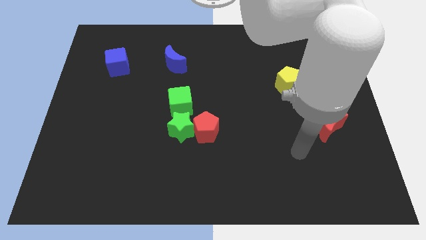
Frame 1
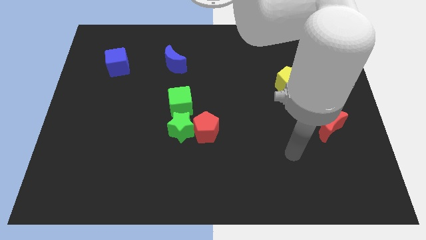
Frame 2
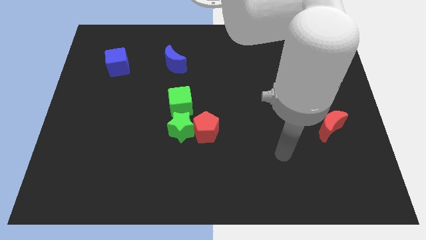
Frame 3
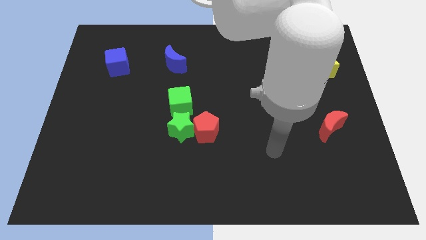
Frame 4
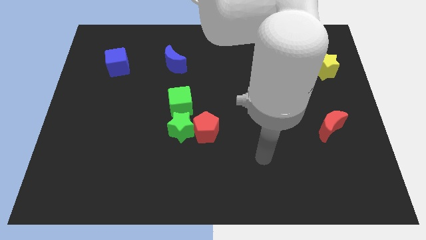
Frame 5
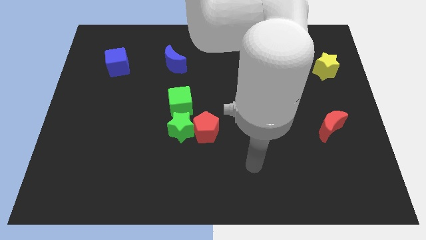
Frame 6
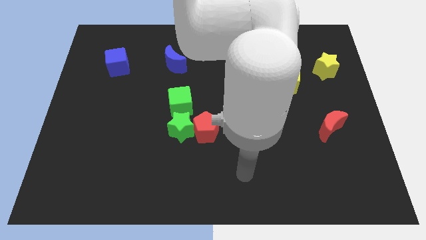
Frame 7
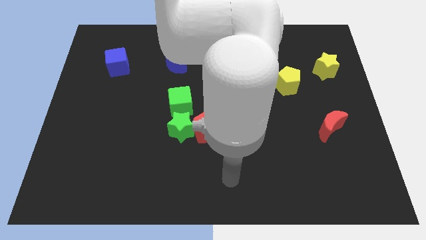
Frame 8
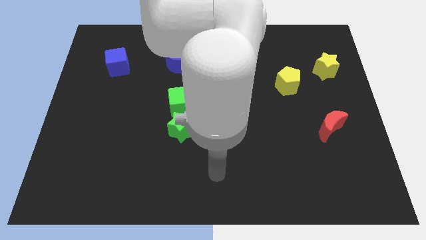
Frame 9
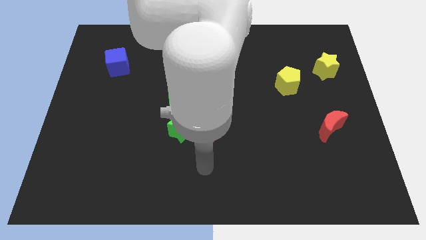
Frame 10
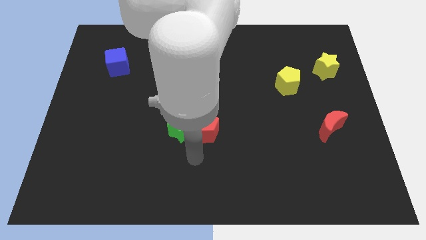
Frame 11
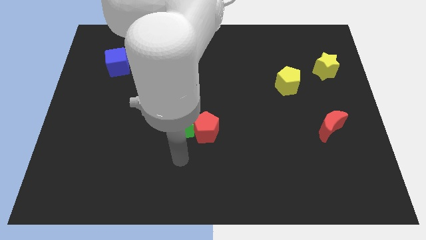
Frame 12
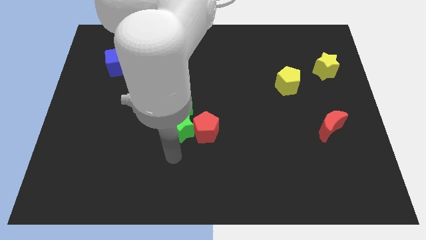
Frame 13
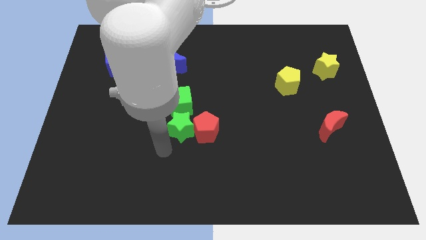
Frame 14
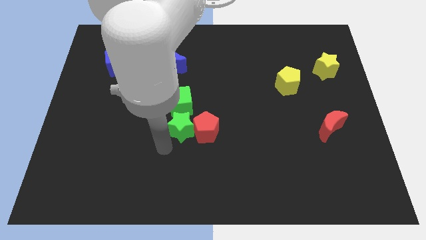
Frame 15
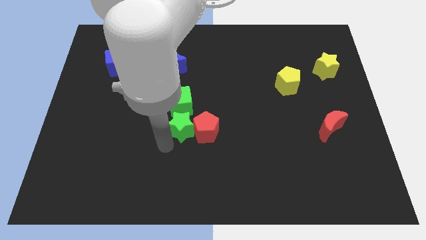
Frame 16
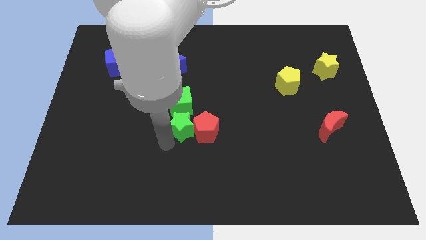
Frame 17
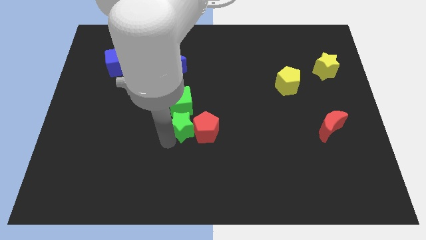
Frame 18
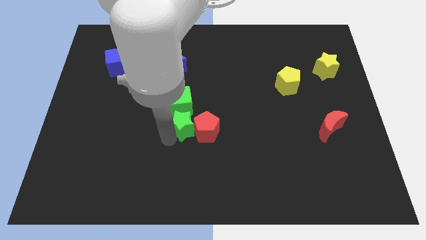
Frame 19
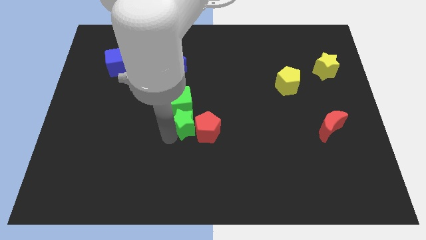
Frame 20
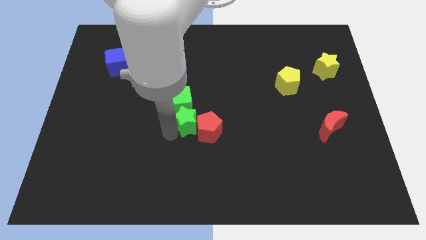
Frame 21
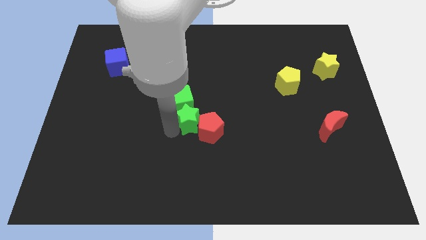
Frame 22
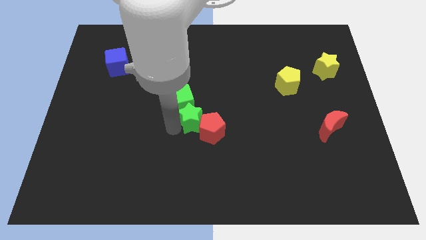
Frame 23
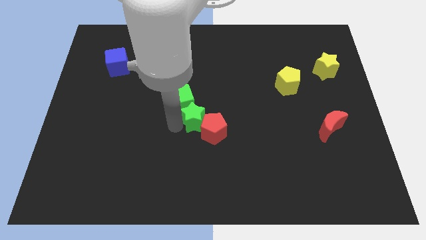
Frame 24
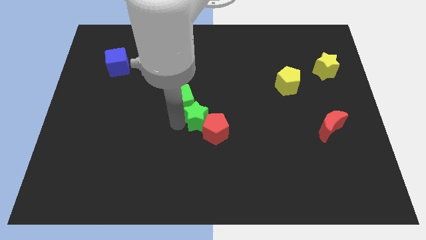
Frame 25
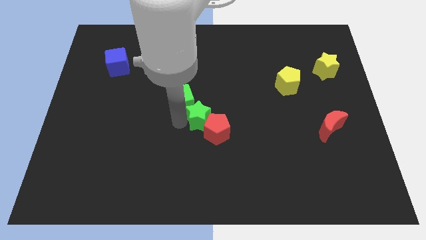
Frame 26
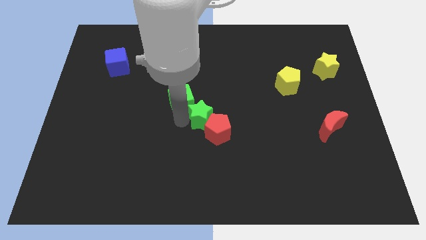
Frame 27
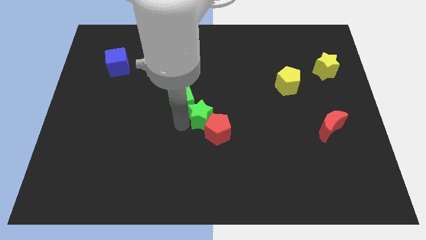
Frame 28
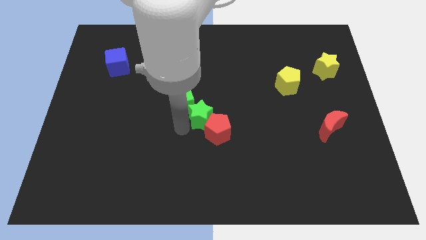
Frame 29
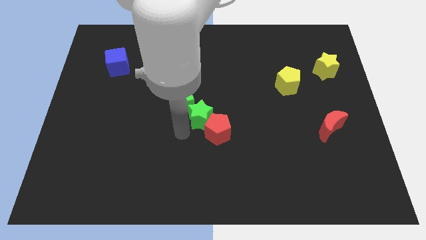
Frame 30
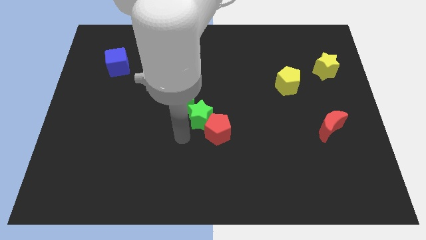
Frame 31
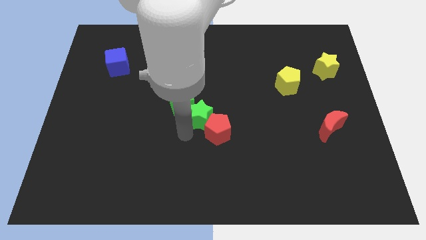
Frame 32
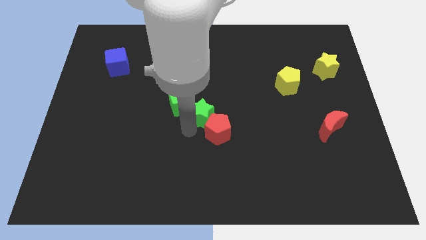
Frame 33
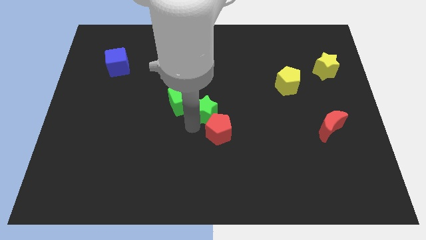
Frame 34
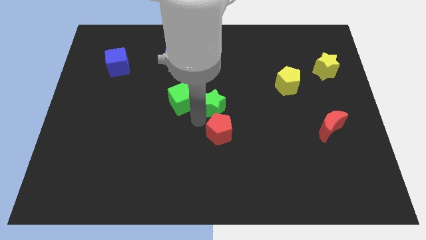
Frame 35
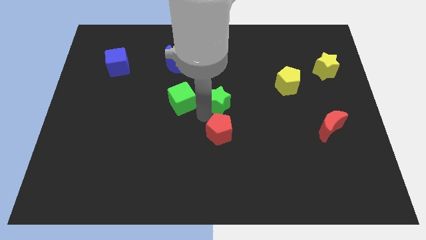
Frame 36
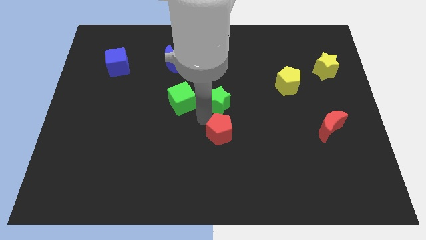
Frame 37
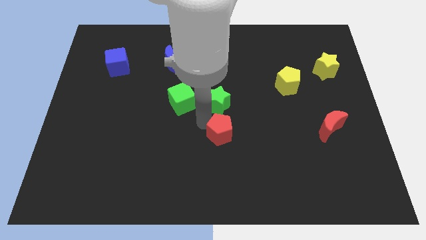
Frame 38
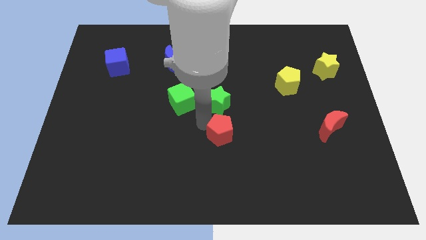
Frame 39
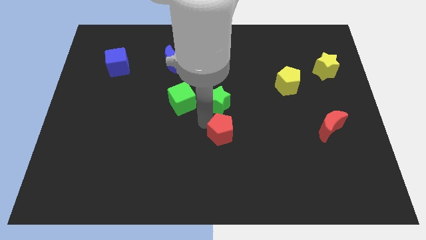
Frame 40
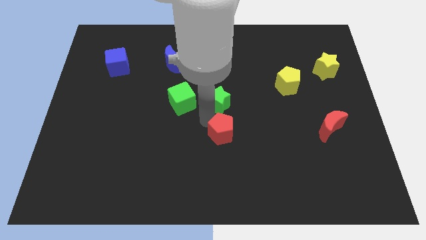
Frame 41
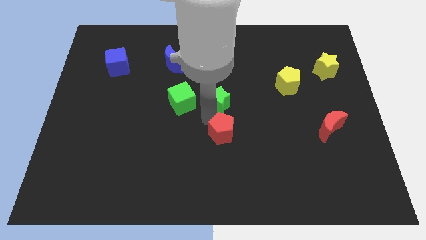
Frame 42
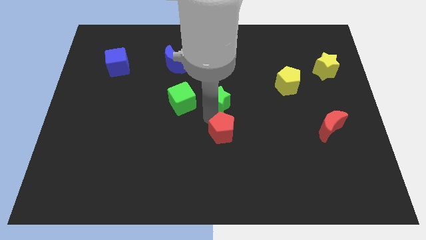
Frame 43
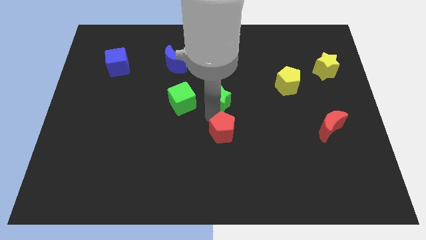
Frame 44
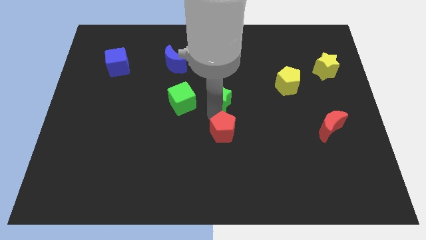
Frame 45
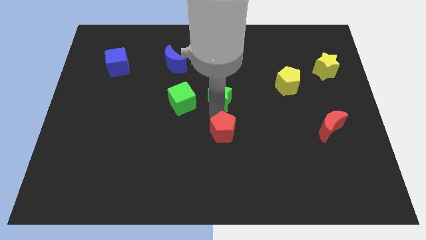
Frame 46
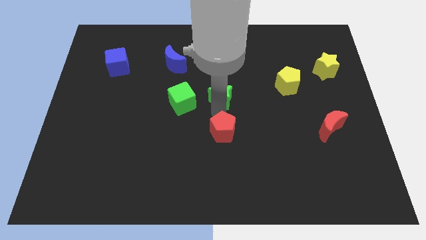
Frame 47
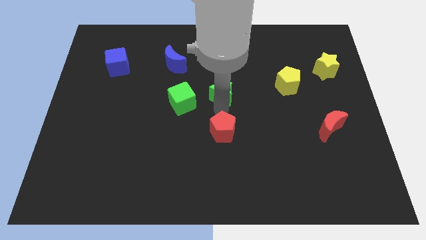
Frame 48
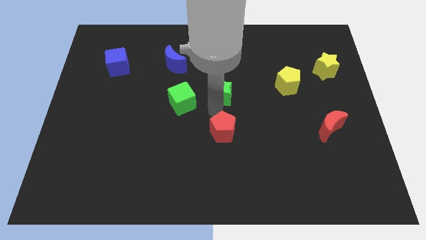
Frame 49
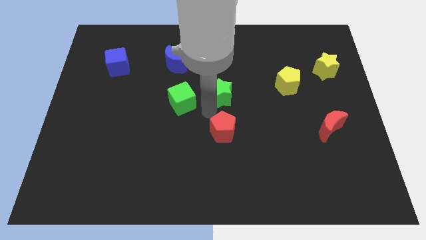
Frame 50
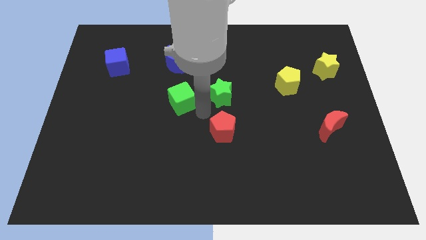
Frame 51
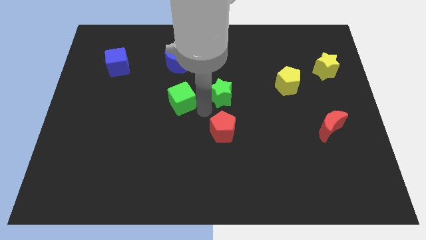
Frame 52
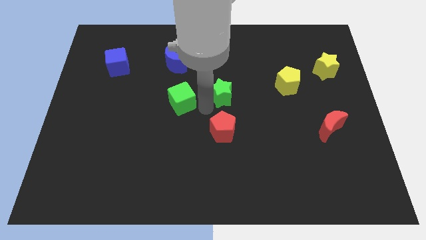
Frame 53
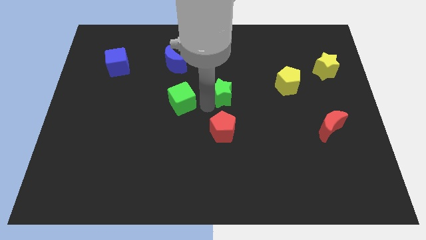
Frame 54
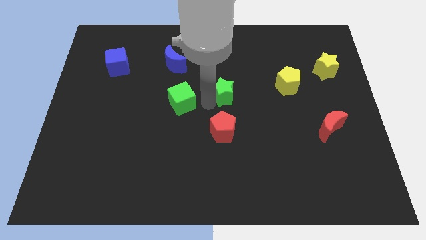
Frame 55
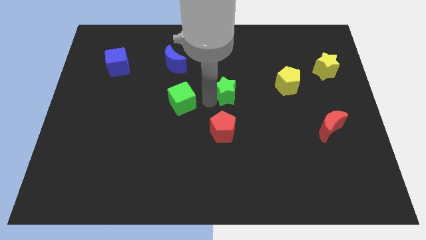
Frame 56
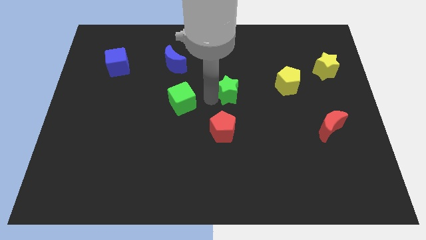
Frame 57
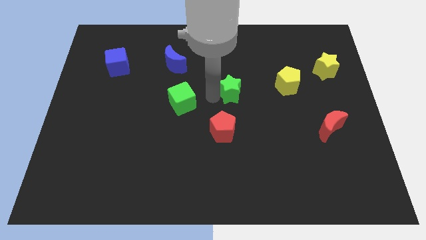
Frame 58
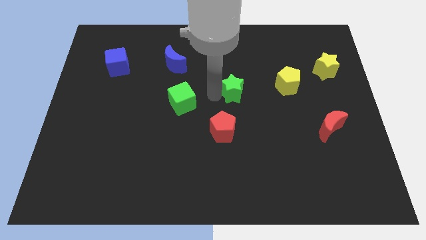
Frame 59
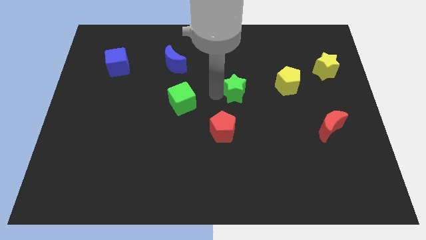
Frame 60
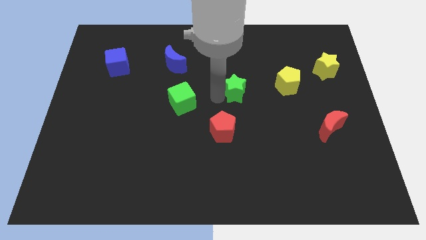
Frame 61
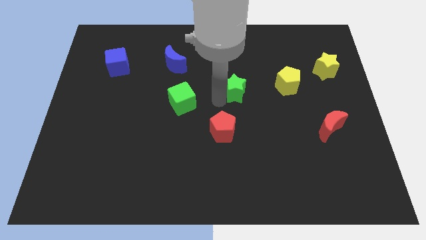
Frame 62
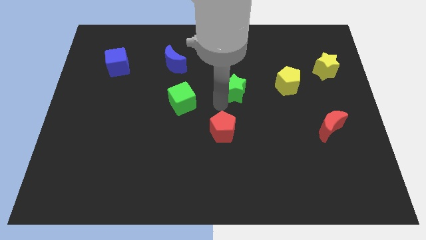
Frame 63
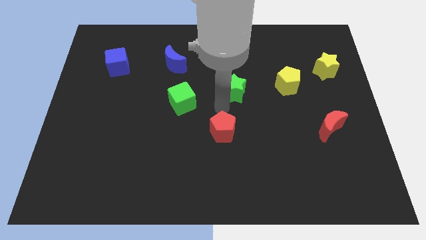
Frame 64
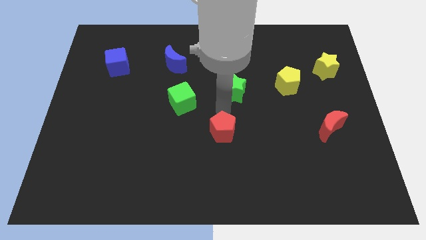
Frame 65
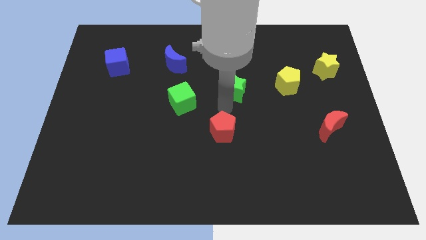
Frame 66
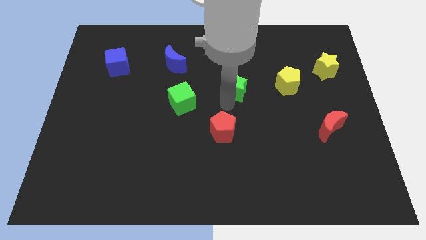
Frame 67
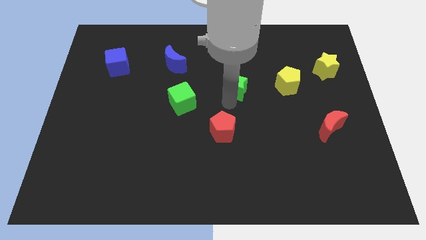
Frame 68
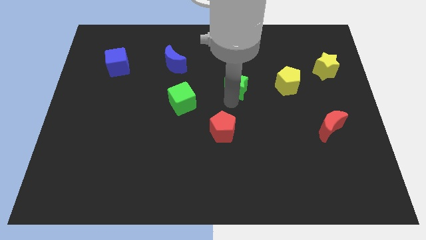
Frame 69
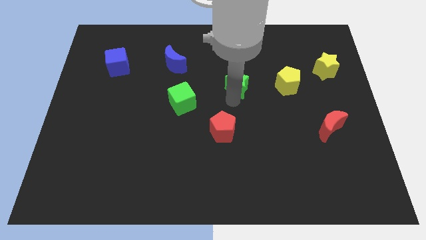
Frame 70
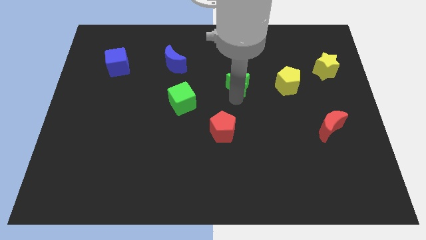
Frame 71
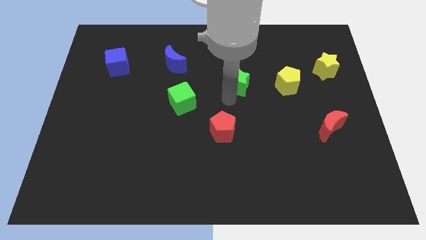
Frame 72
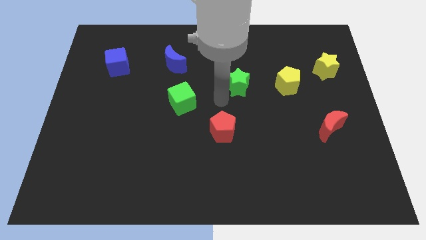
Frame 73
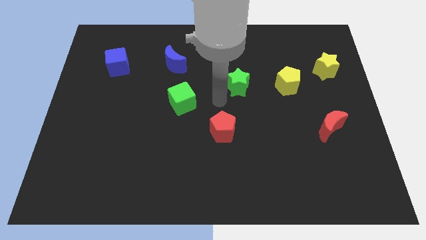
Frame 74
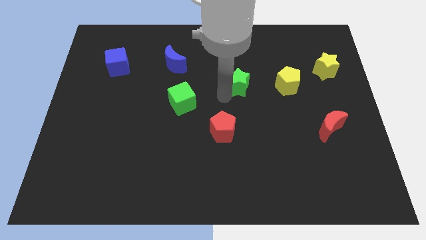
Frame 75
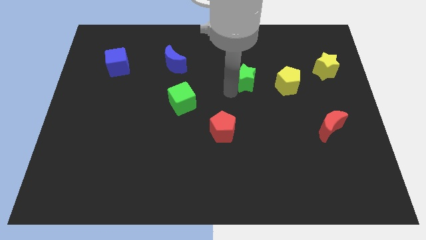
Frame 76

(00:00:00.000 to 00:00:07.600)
move the green star up and then to the right

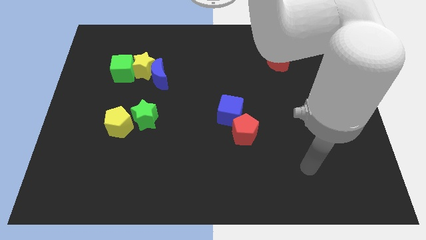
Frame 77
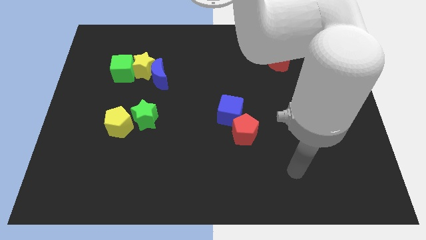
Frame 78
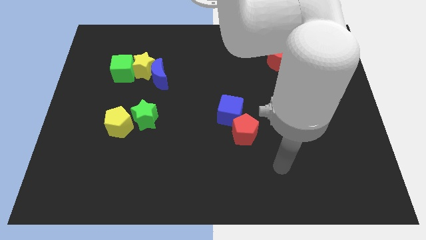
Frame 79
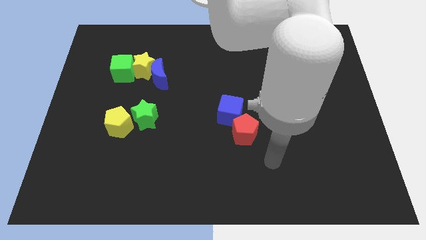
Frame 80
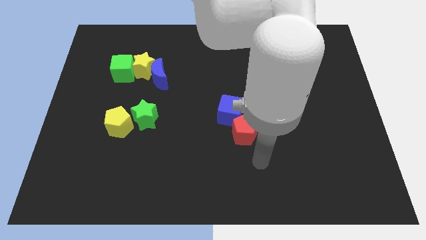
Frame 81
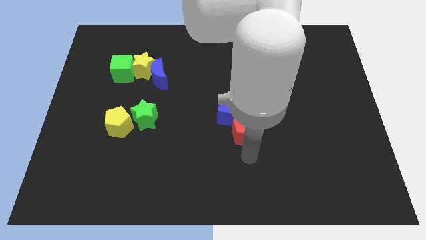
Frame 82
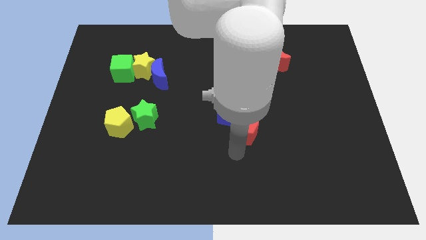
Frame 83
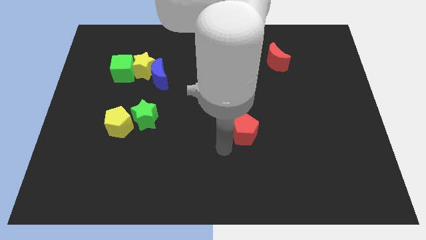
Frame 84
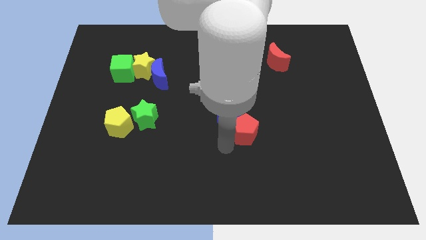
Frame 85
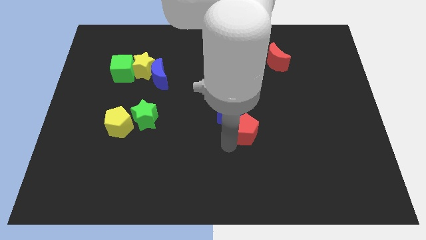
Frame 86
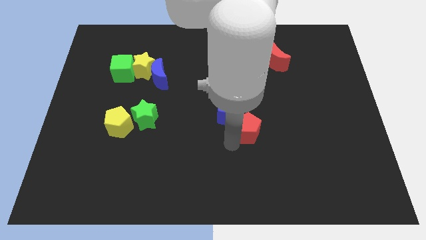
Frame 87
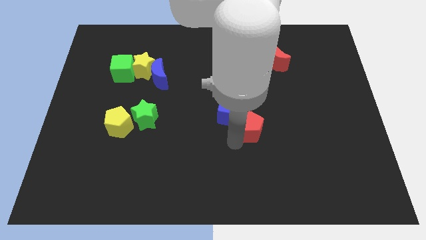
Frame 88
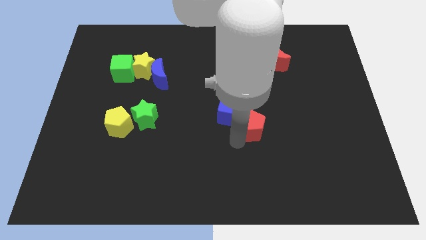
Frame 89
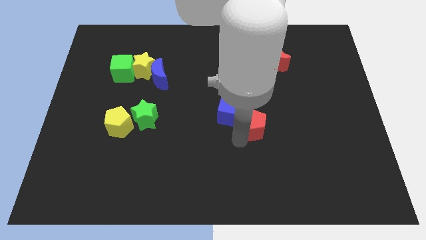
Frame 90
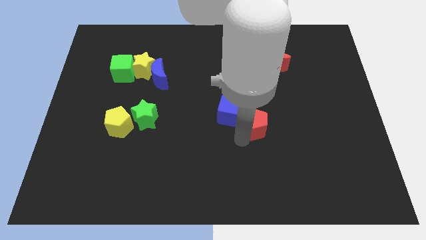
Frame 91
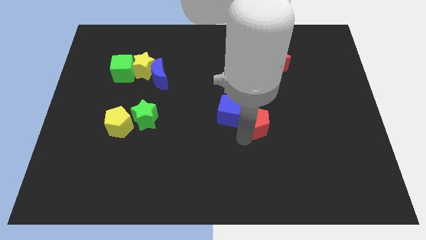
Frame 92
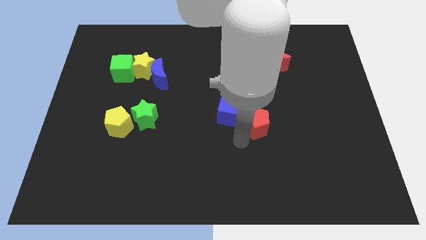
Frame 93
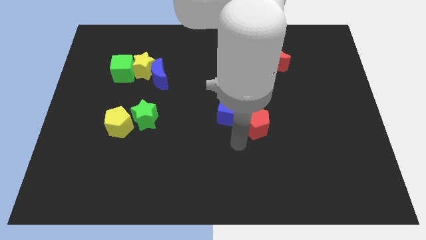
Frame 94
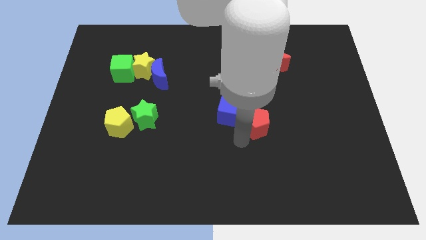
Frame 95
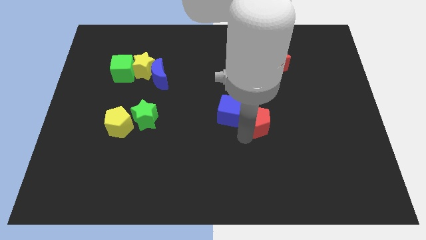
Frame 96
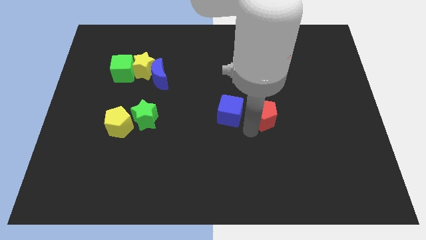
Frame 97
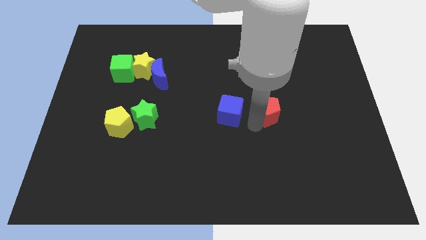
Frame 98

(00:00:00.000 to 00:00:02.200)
slide the red pentagon slightly up and to the right
